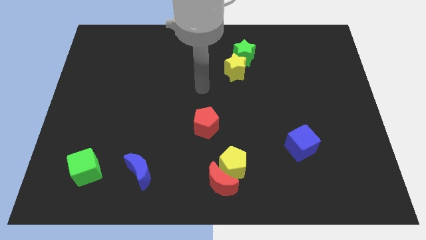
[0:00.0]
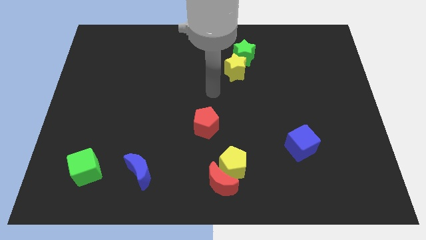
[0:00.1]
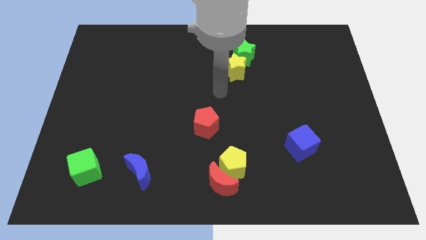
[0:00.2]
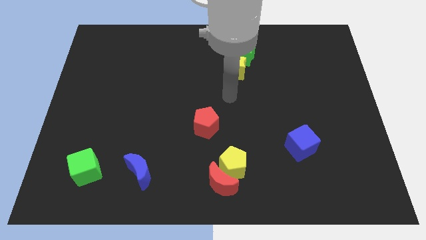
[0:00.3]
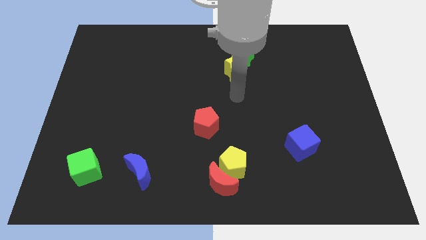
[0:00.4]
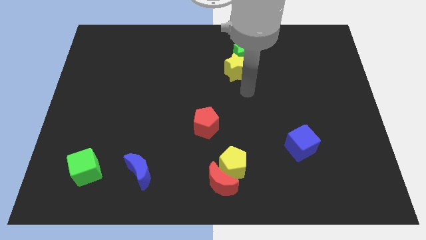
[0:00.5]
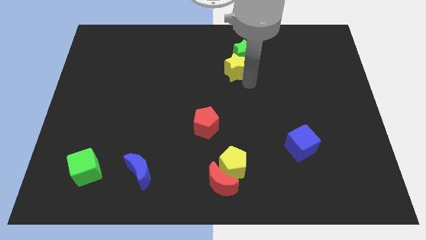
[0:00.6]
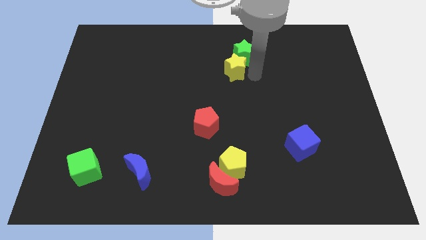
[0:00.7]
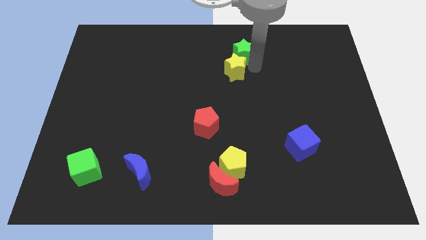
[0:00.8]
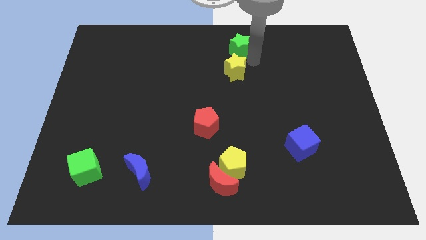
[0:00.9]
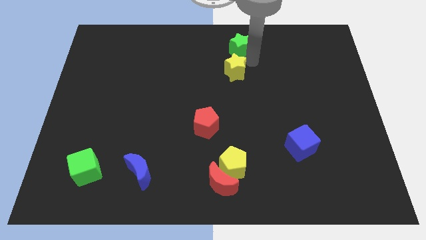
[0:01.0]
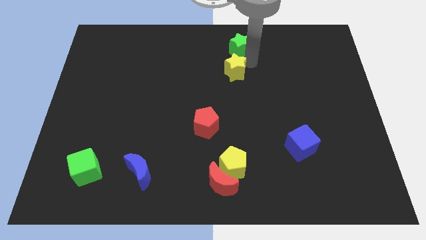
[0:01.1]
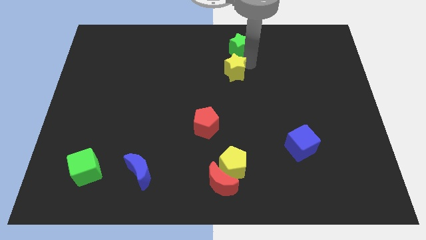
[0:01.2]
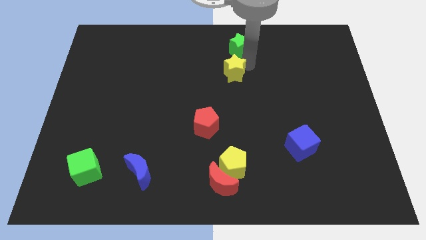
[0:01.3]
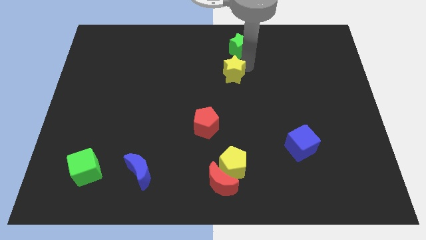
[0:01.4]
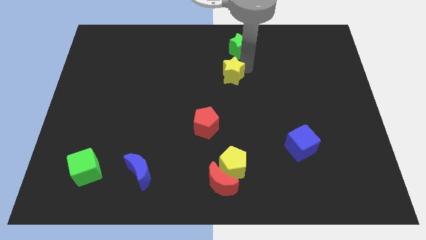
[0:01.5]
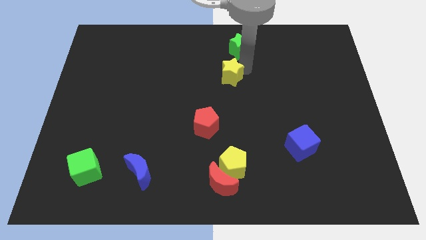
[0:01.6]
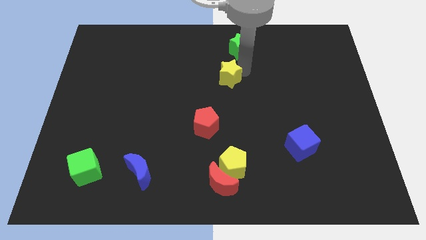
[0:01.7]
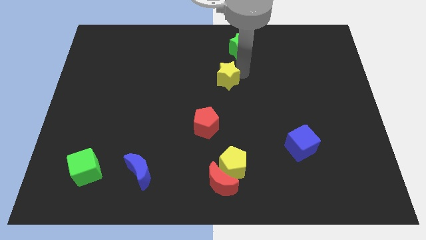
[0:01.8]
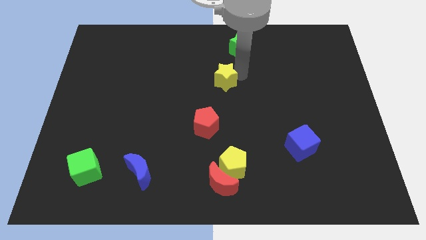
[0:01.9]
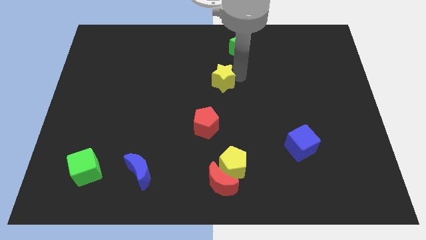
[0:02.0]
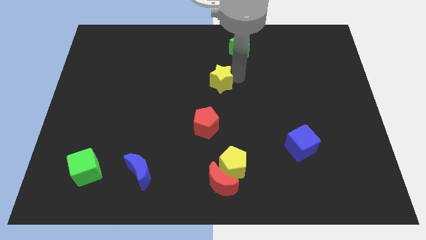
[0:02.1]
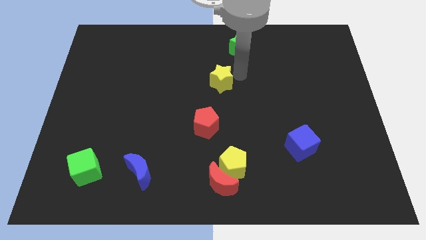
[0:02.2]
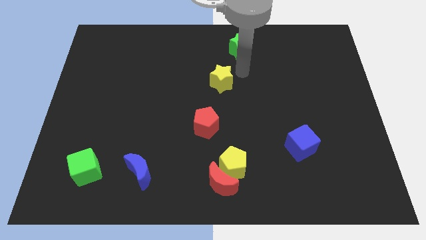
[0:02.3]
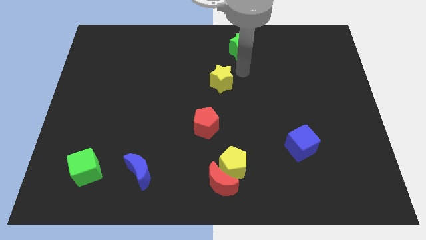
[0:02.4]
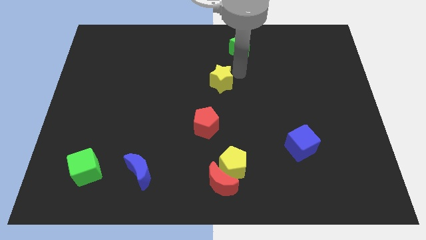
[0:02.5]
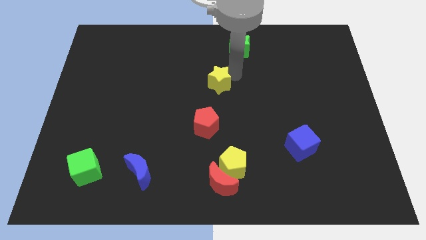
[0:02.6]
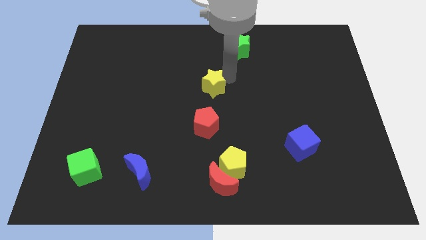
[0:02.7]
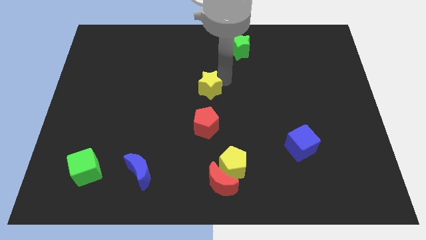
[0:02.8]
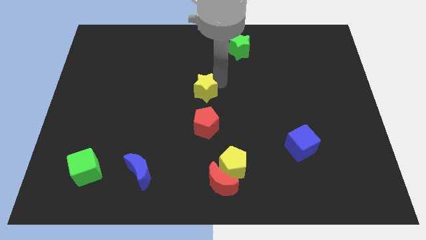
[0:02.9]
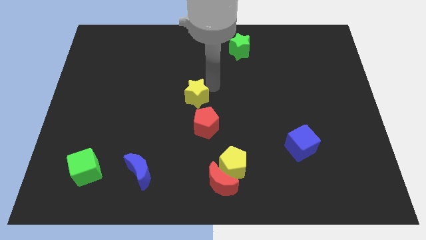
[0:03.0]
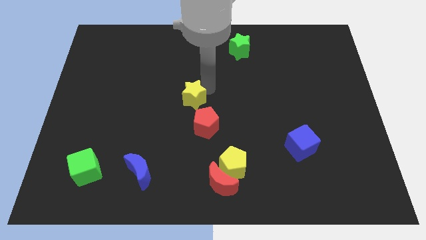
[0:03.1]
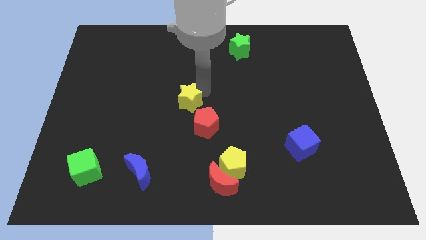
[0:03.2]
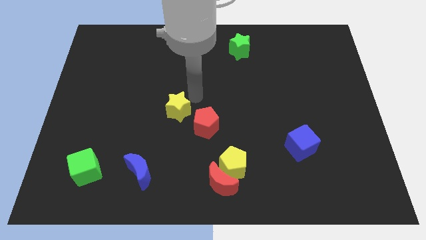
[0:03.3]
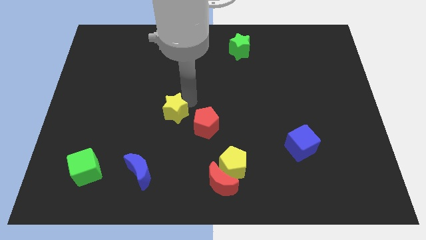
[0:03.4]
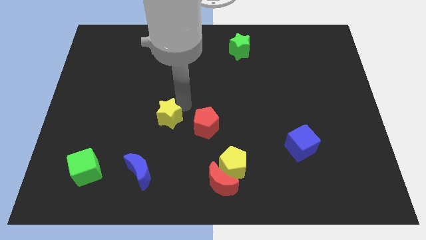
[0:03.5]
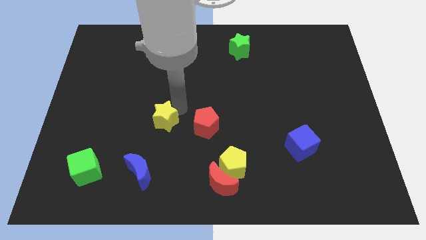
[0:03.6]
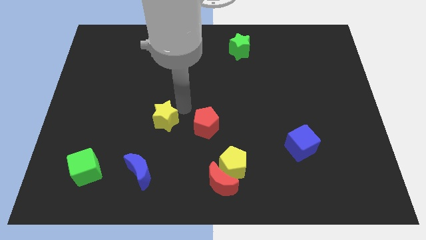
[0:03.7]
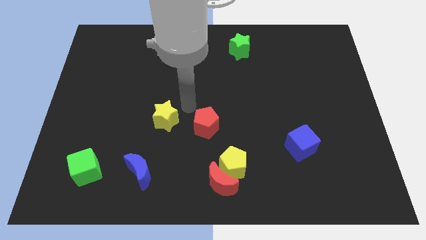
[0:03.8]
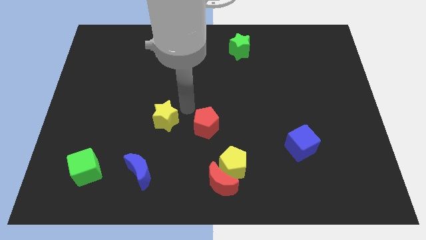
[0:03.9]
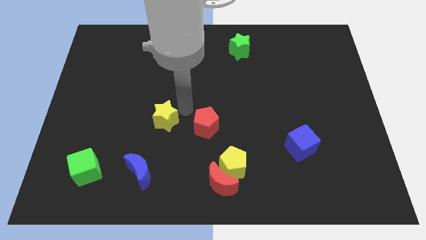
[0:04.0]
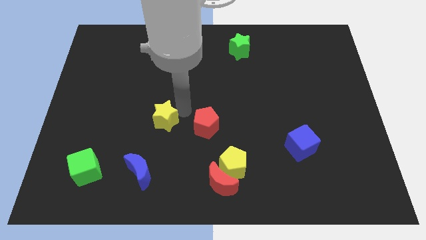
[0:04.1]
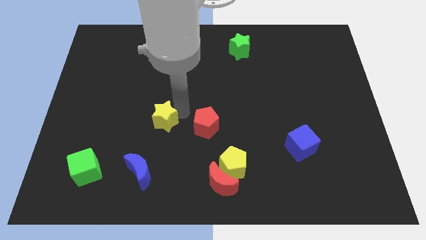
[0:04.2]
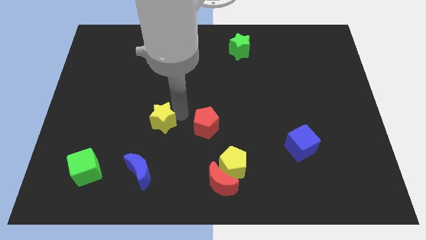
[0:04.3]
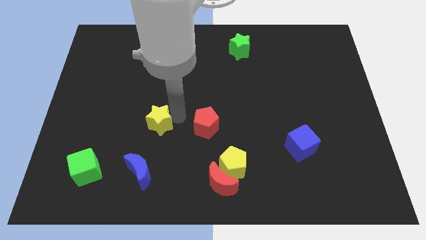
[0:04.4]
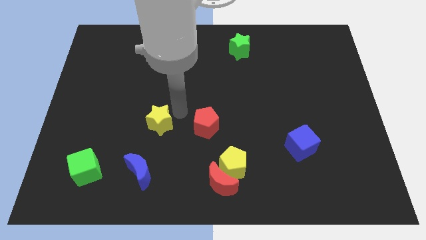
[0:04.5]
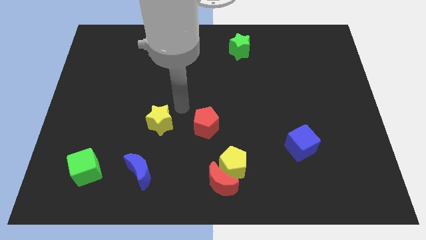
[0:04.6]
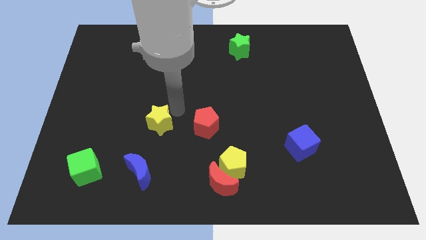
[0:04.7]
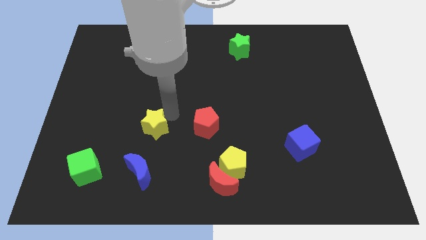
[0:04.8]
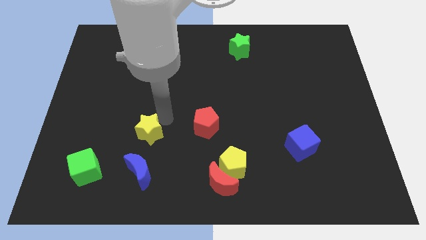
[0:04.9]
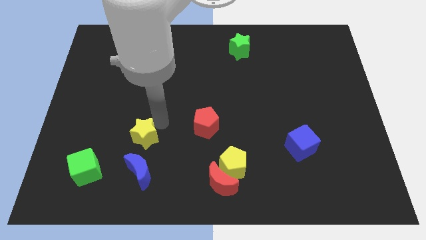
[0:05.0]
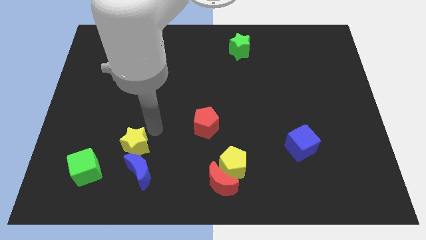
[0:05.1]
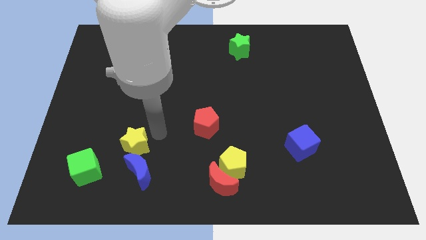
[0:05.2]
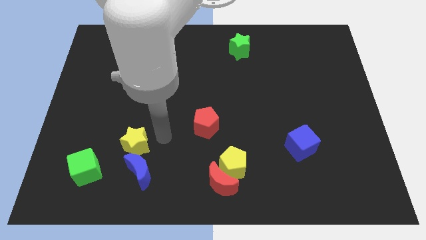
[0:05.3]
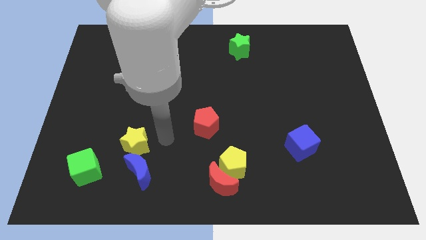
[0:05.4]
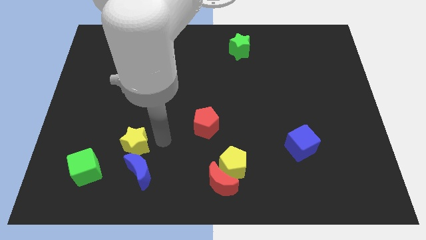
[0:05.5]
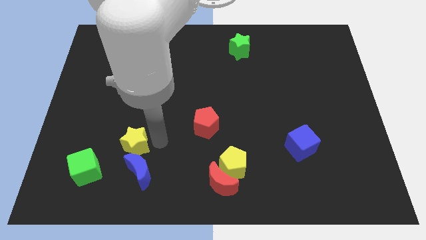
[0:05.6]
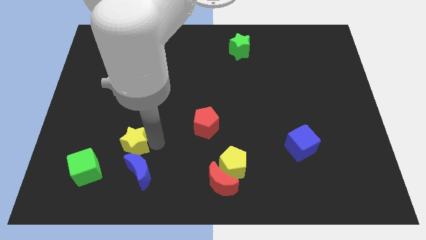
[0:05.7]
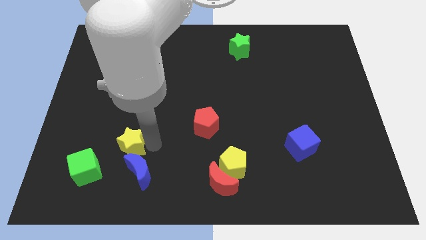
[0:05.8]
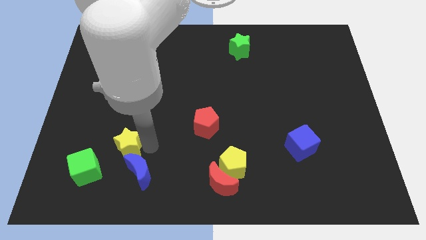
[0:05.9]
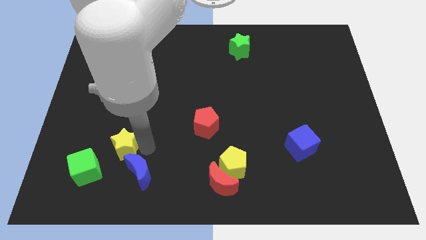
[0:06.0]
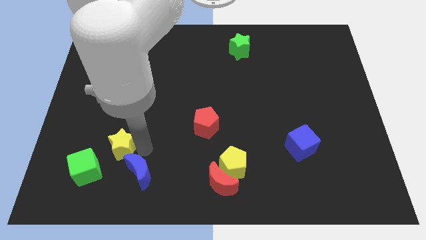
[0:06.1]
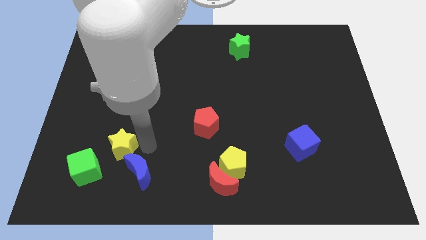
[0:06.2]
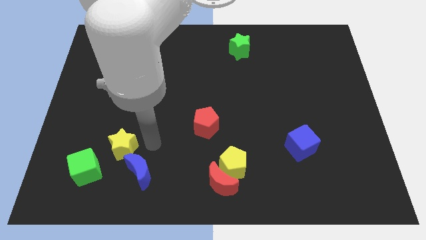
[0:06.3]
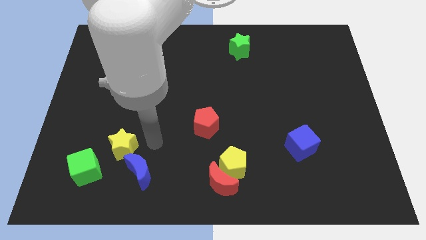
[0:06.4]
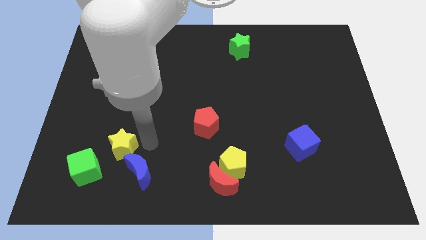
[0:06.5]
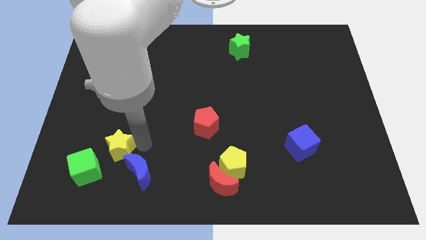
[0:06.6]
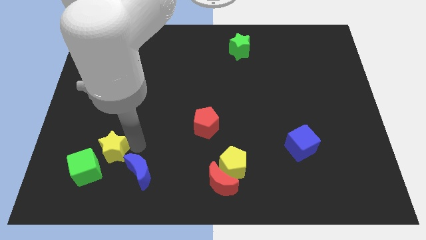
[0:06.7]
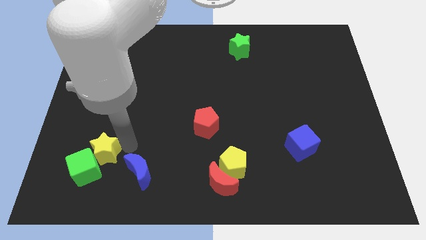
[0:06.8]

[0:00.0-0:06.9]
move the yellow star to the green cube
